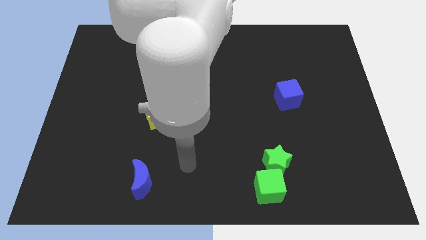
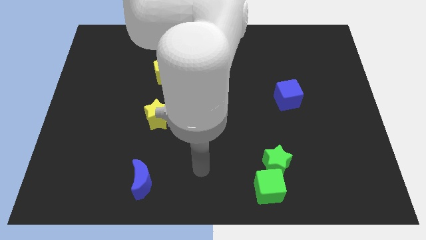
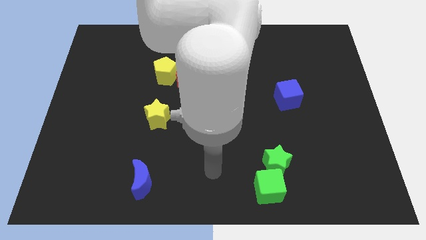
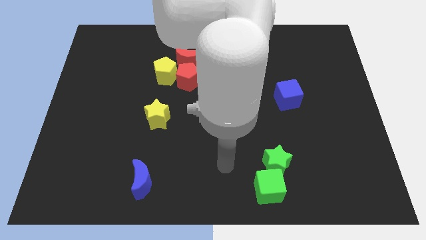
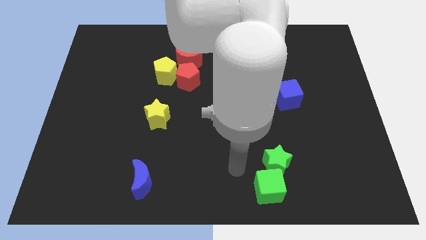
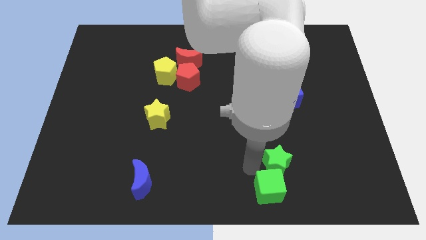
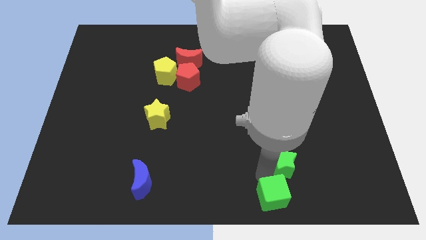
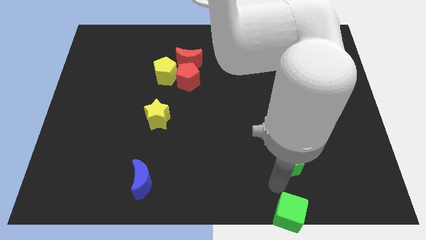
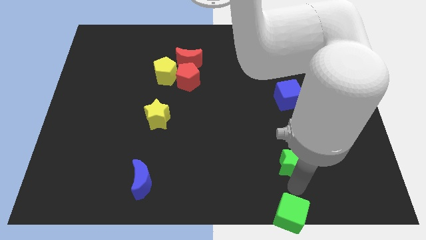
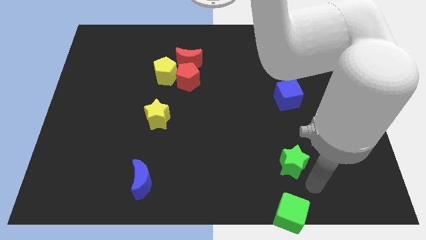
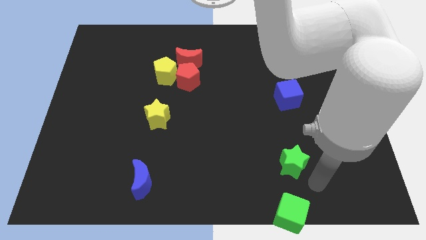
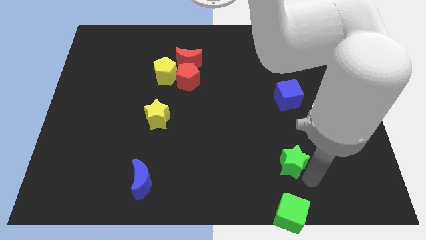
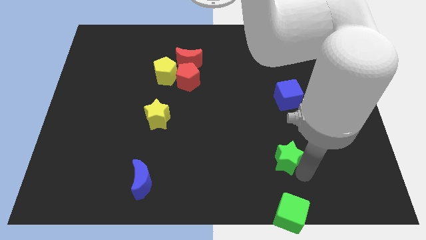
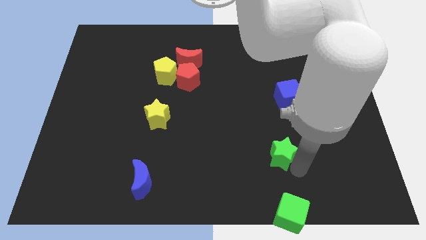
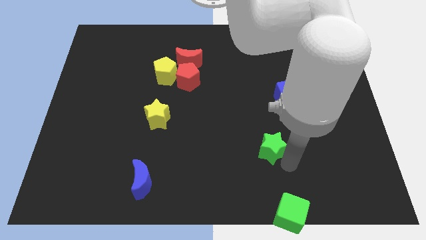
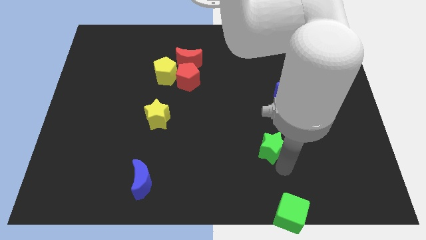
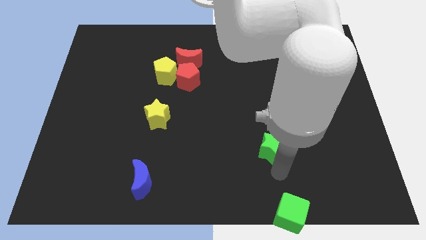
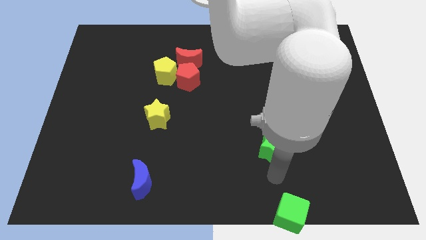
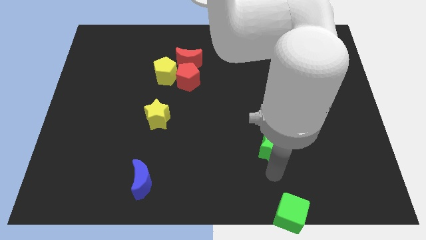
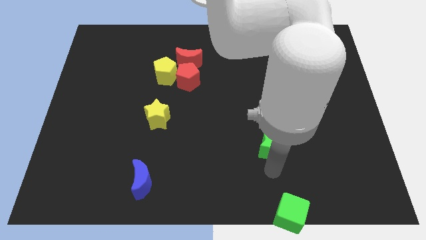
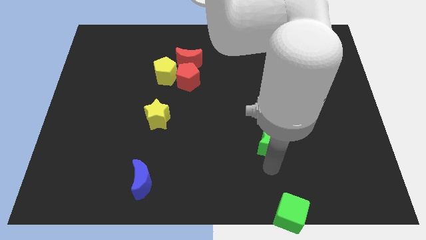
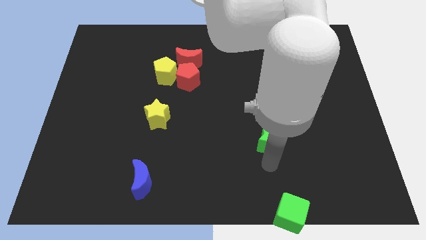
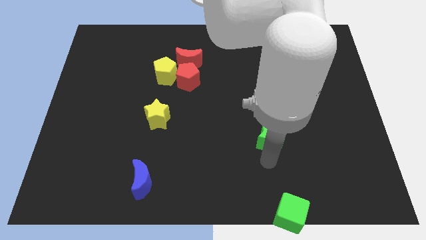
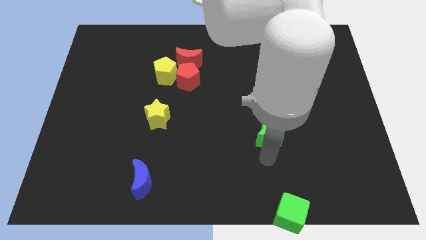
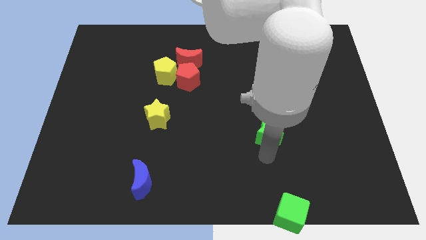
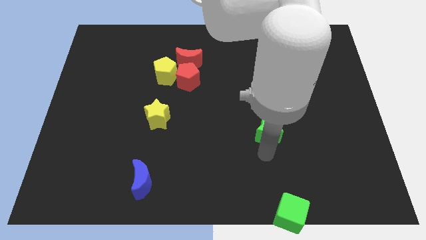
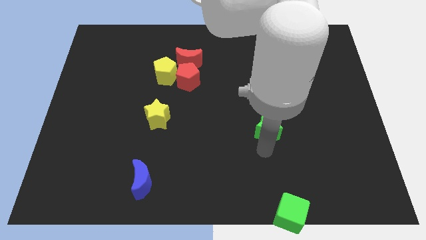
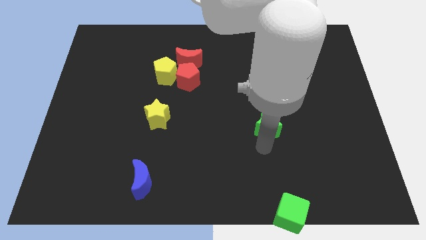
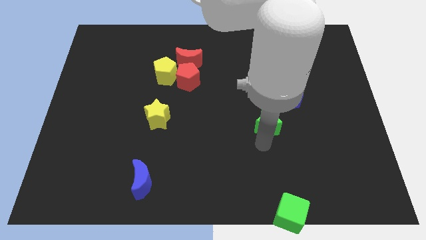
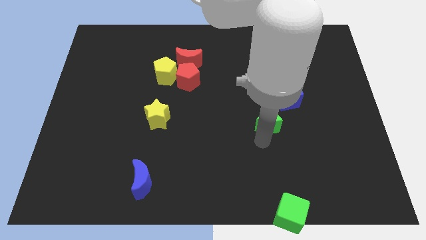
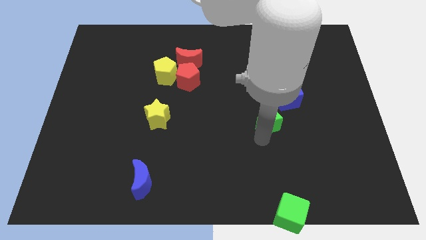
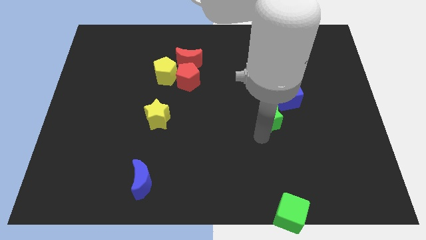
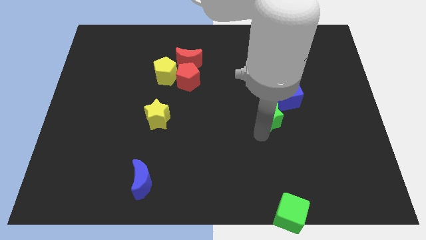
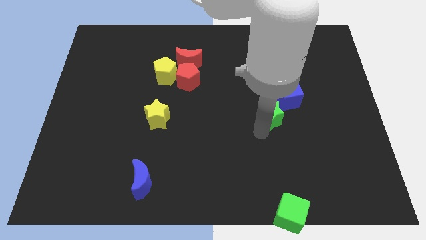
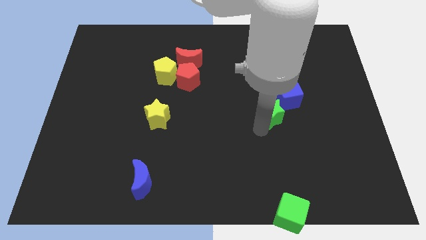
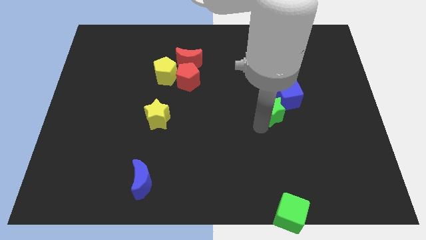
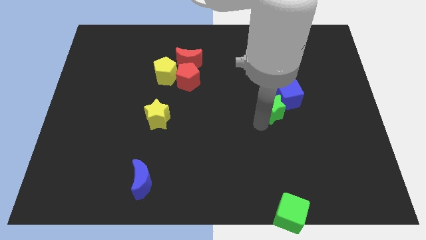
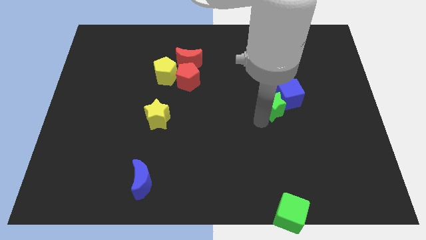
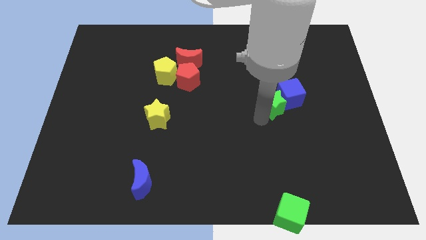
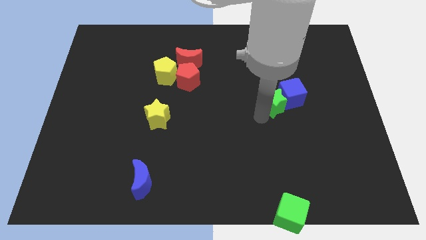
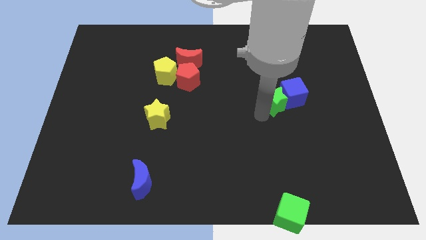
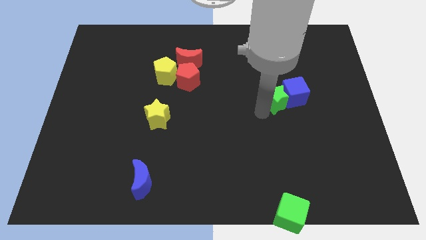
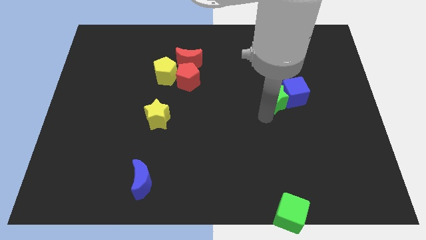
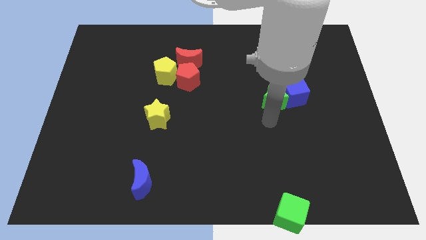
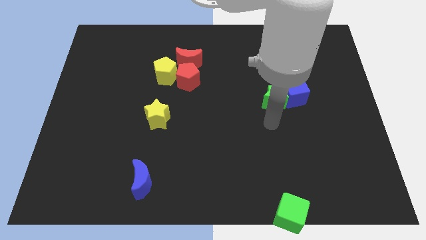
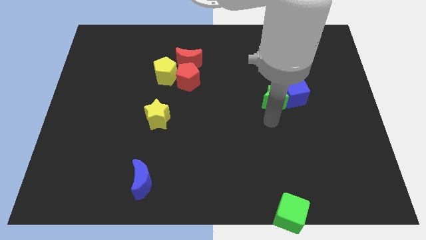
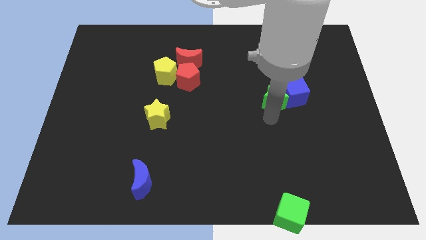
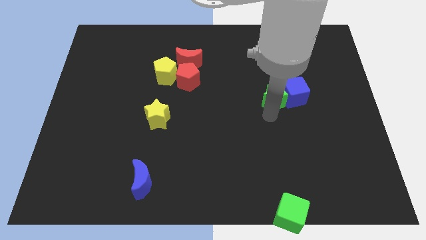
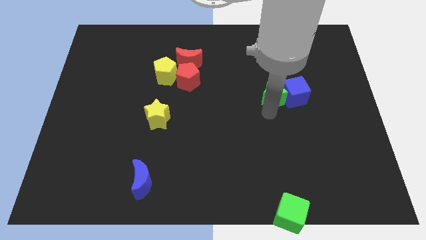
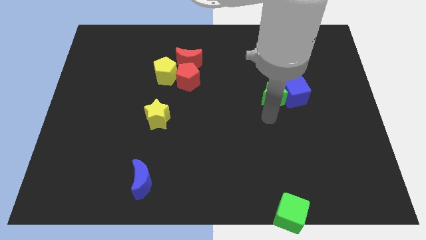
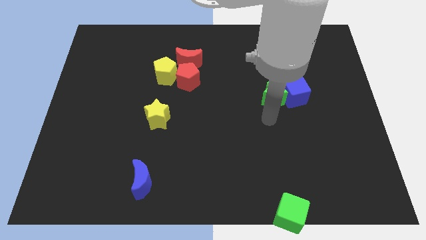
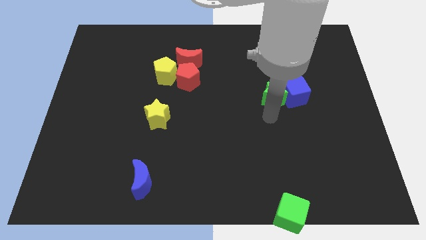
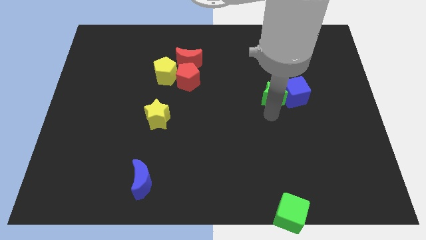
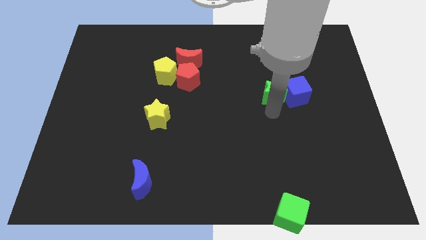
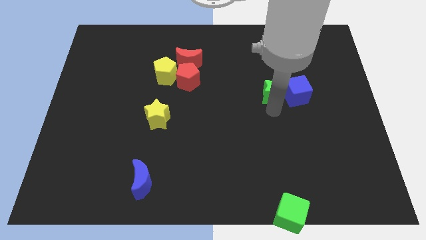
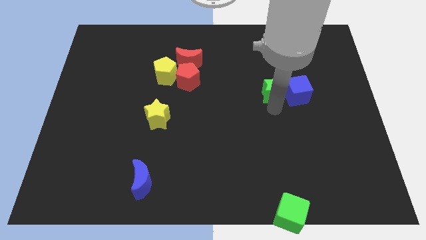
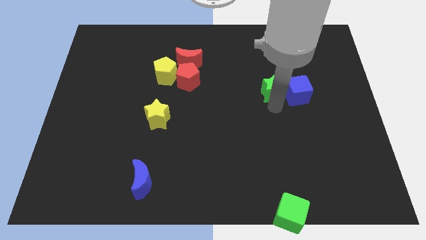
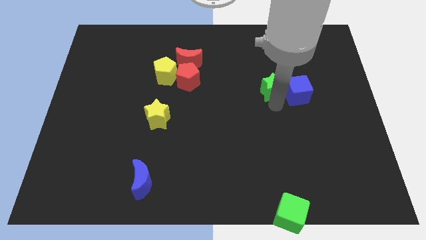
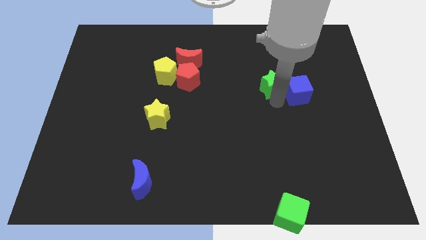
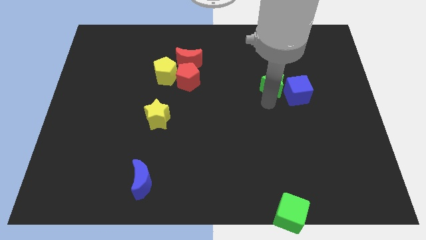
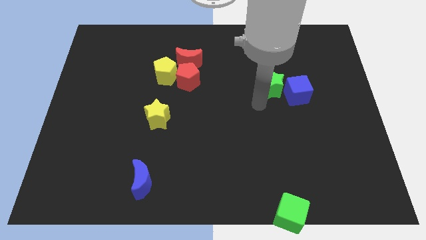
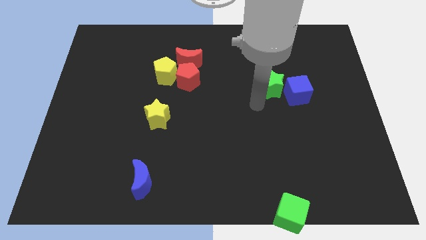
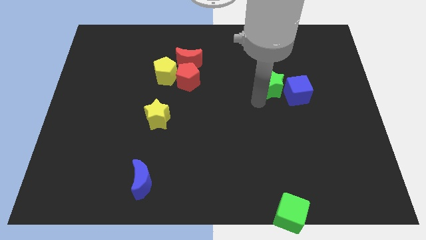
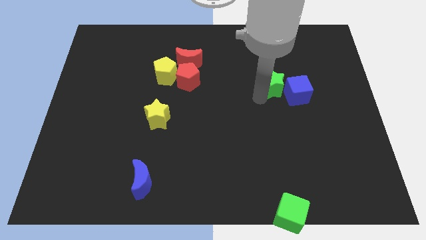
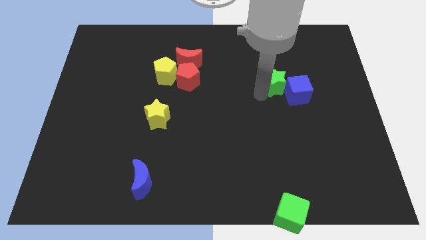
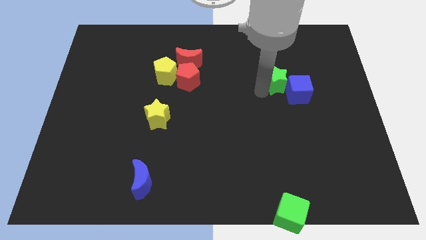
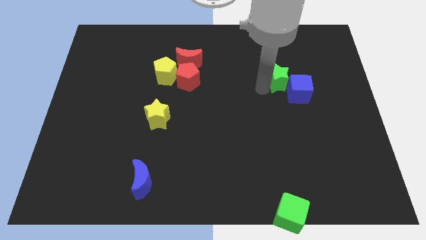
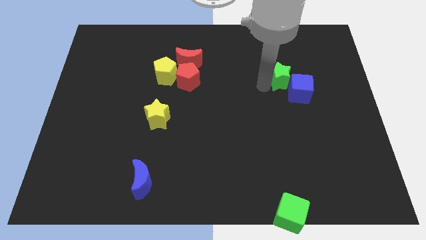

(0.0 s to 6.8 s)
slide the green star above the blue cube
